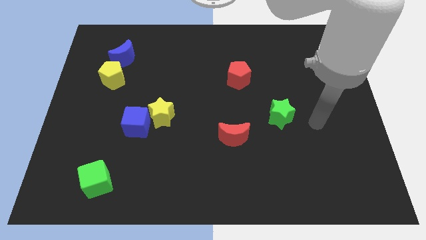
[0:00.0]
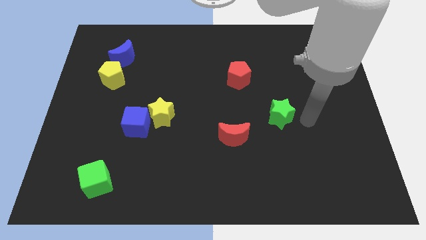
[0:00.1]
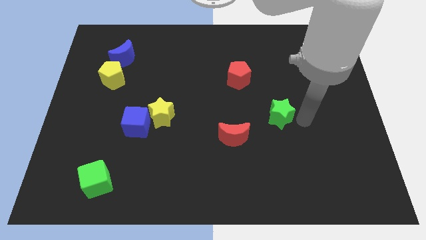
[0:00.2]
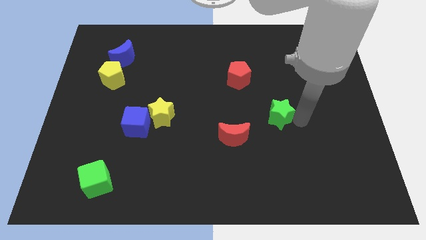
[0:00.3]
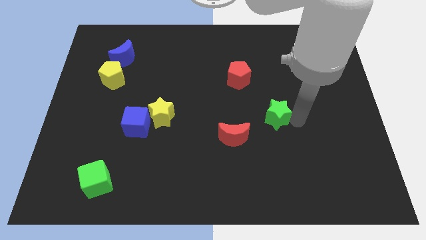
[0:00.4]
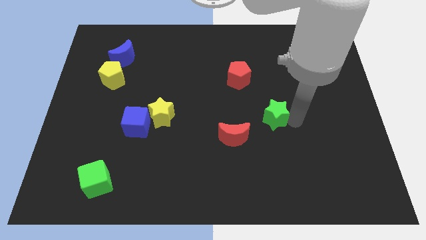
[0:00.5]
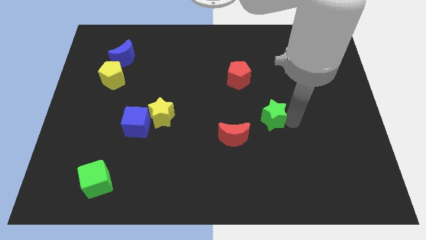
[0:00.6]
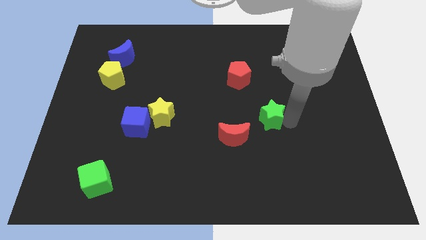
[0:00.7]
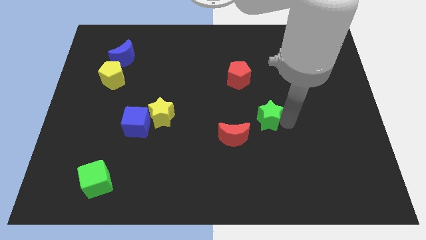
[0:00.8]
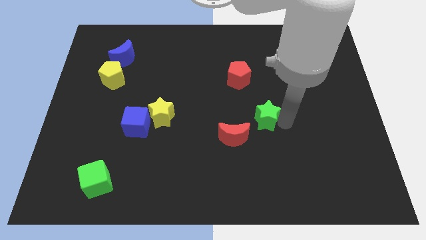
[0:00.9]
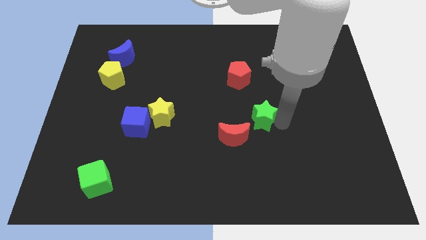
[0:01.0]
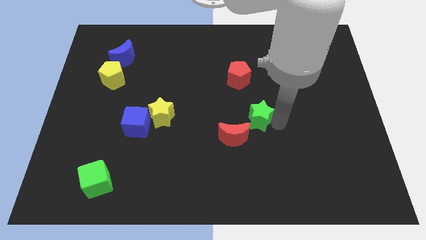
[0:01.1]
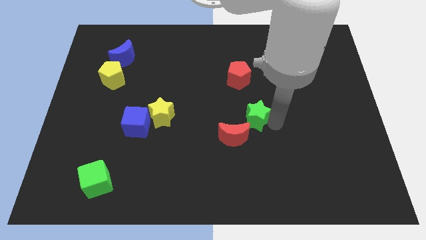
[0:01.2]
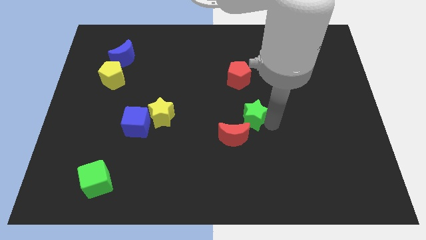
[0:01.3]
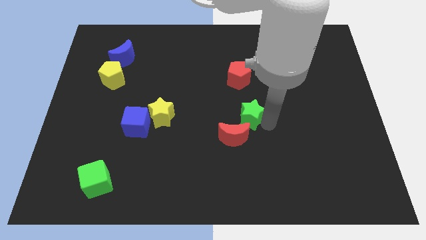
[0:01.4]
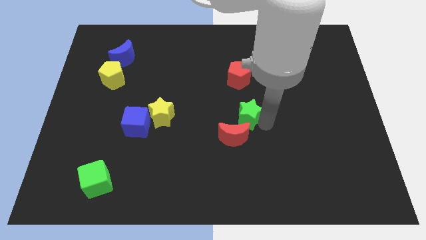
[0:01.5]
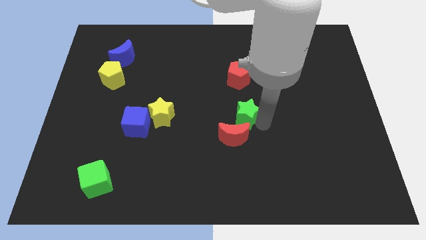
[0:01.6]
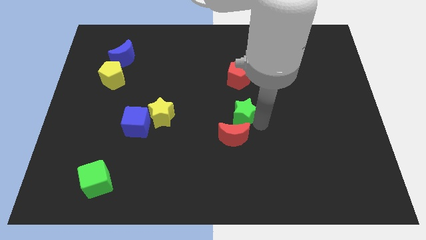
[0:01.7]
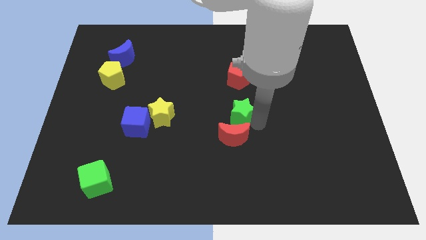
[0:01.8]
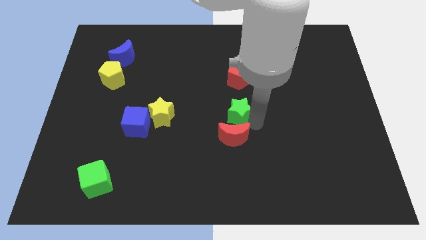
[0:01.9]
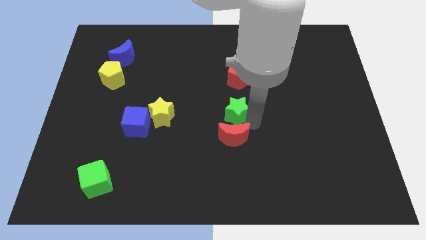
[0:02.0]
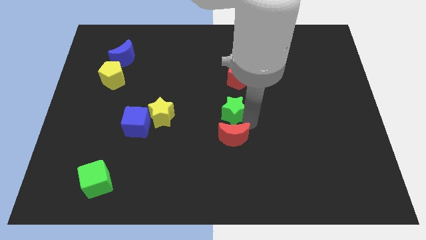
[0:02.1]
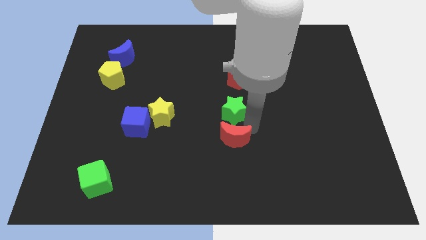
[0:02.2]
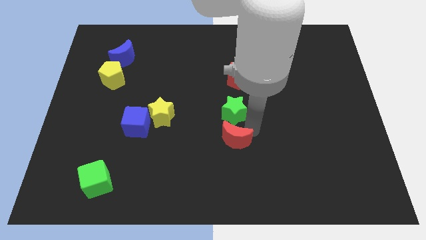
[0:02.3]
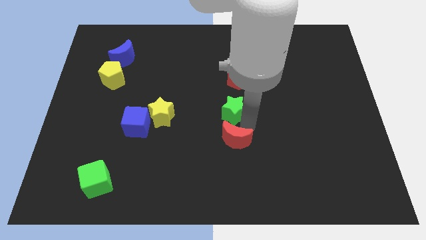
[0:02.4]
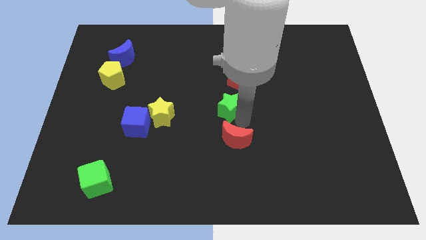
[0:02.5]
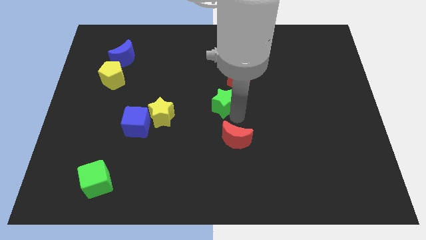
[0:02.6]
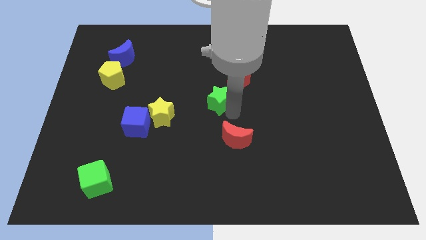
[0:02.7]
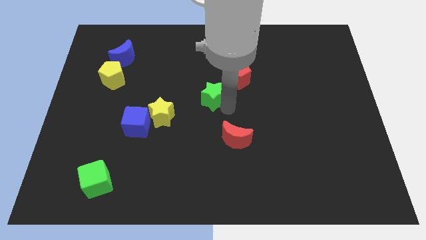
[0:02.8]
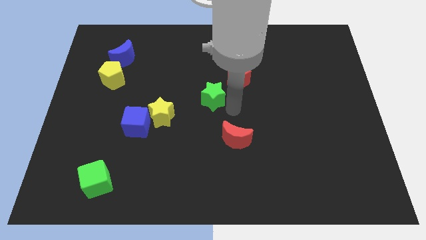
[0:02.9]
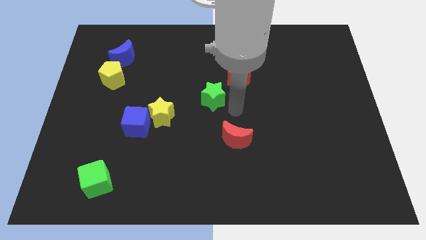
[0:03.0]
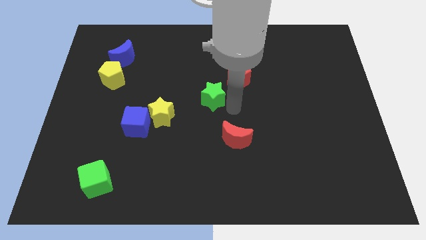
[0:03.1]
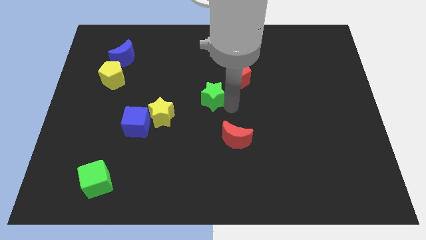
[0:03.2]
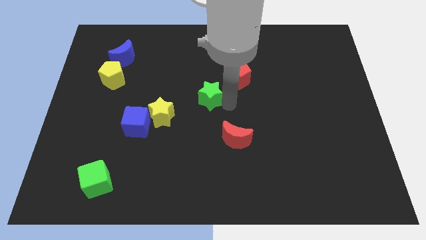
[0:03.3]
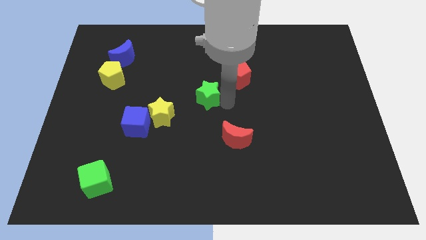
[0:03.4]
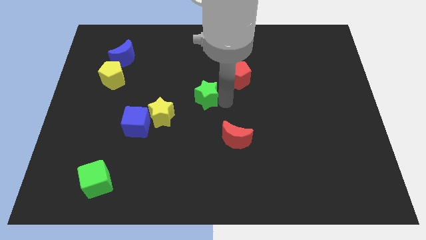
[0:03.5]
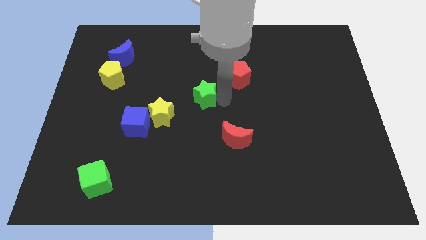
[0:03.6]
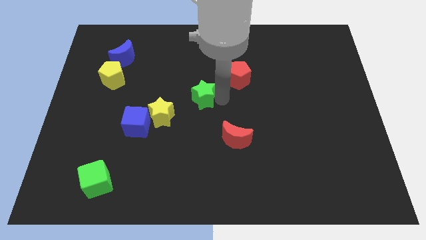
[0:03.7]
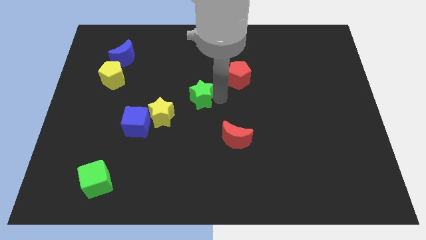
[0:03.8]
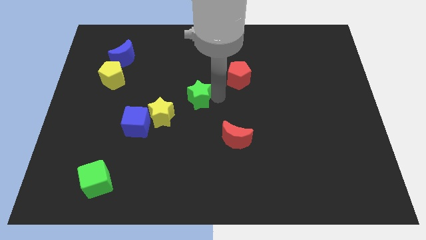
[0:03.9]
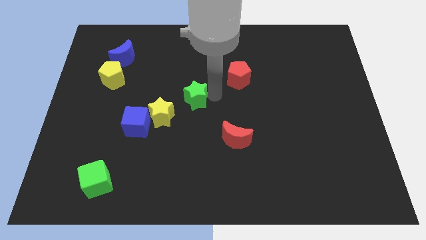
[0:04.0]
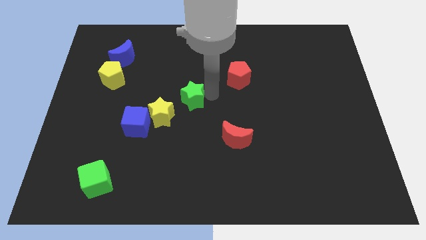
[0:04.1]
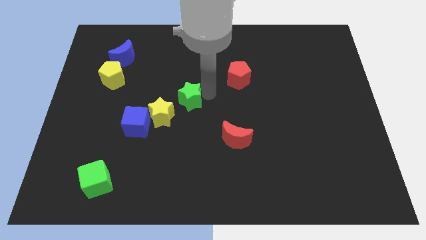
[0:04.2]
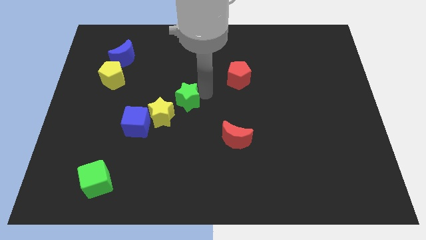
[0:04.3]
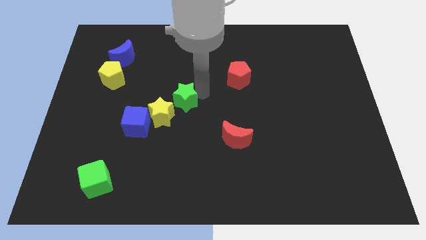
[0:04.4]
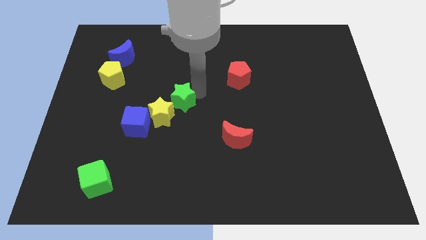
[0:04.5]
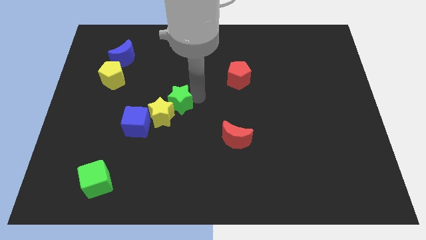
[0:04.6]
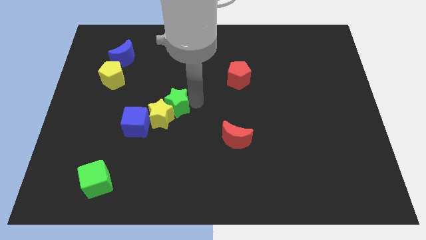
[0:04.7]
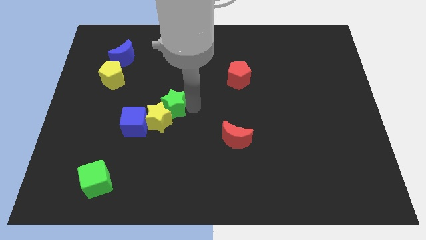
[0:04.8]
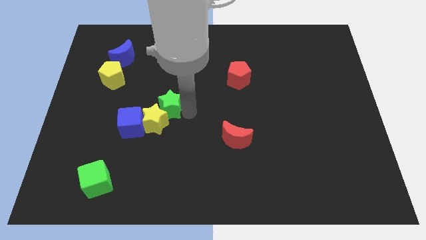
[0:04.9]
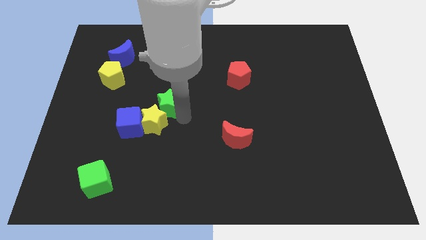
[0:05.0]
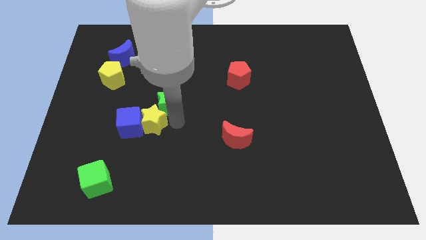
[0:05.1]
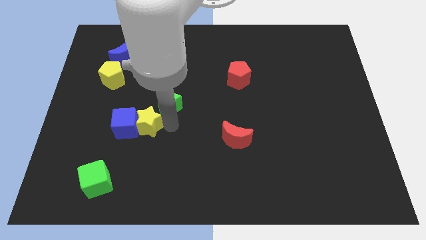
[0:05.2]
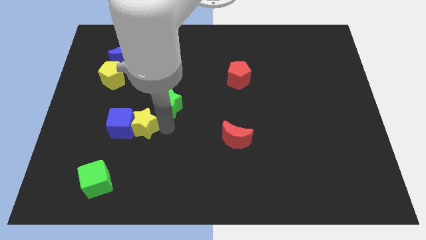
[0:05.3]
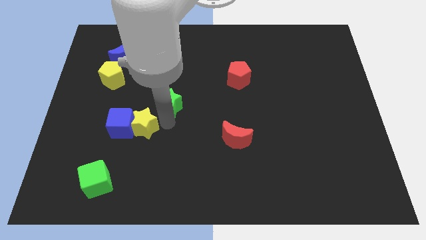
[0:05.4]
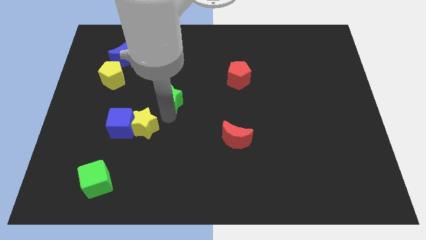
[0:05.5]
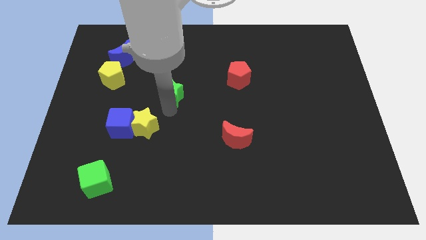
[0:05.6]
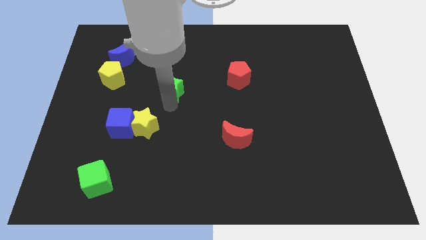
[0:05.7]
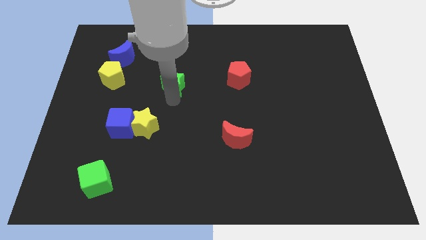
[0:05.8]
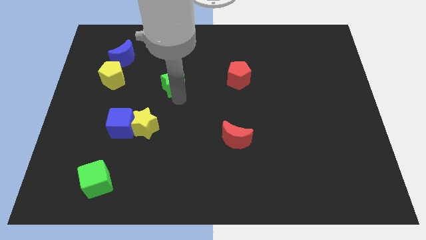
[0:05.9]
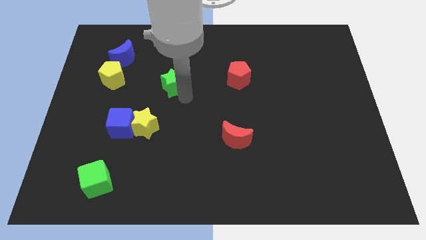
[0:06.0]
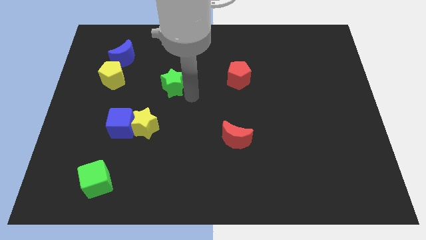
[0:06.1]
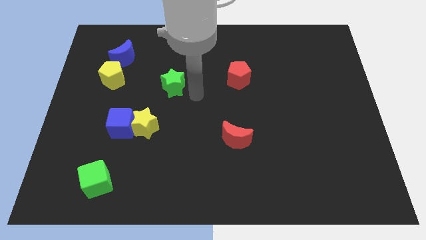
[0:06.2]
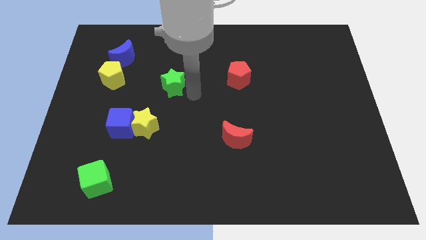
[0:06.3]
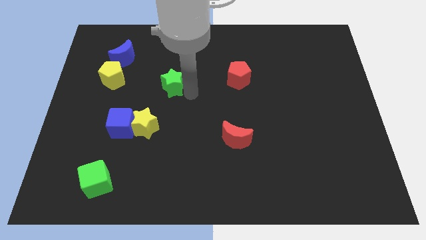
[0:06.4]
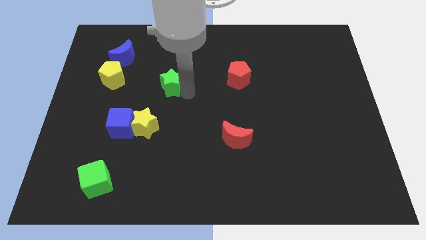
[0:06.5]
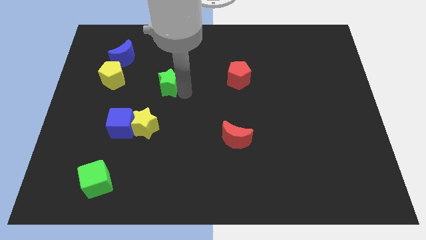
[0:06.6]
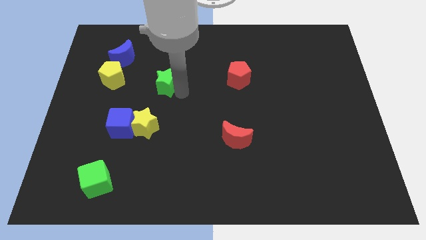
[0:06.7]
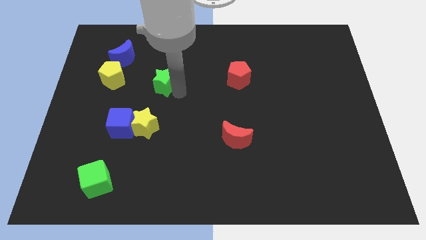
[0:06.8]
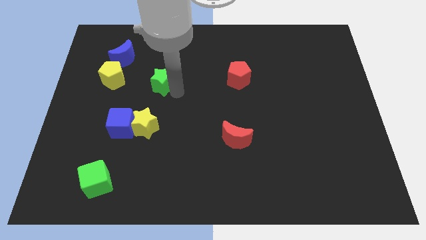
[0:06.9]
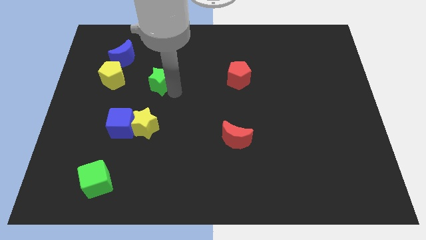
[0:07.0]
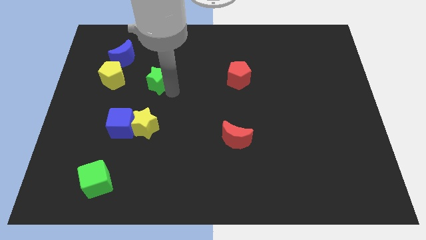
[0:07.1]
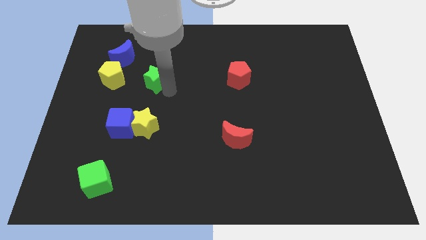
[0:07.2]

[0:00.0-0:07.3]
move the green star diagonally down and to the right of the blue moon

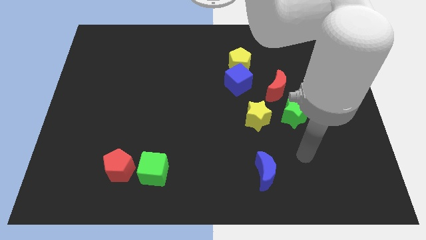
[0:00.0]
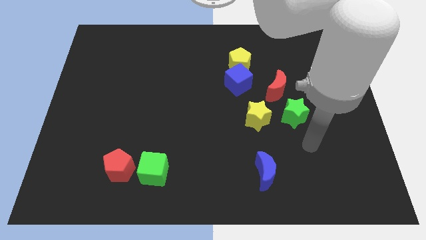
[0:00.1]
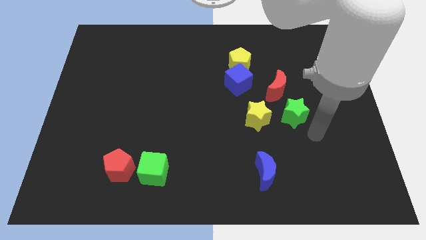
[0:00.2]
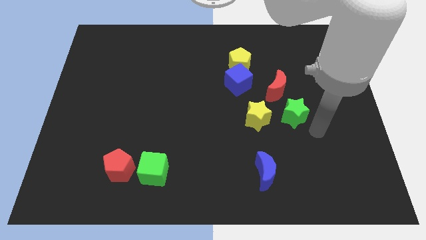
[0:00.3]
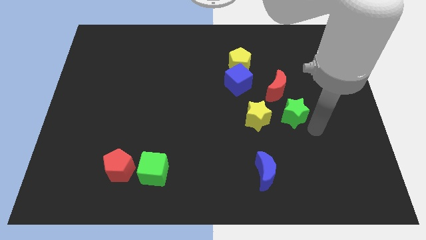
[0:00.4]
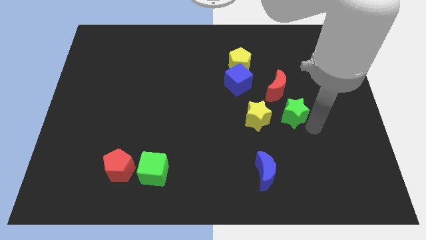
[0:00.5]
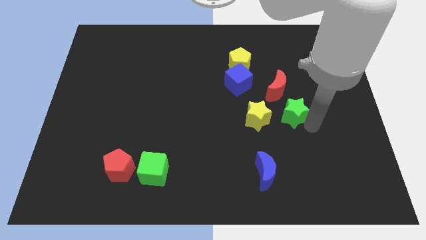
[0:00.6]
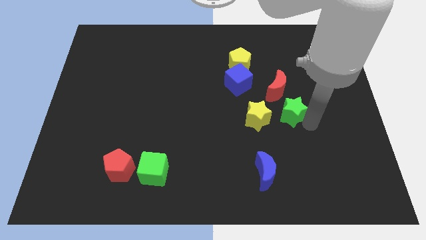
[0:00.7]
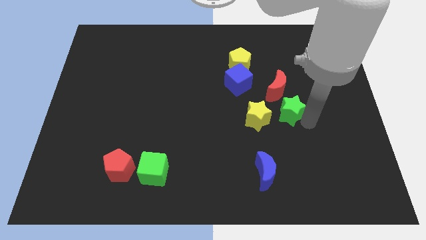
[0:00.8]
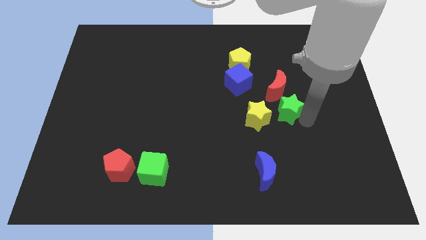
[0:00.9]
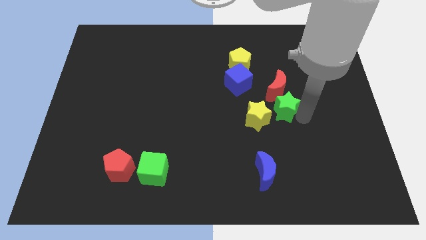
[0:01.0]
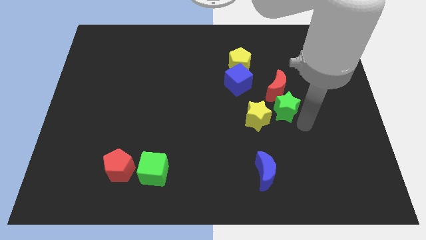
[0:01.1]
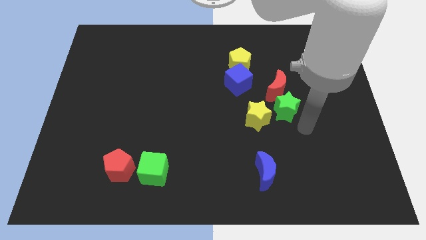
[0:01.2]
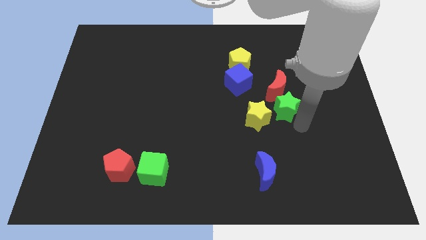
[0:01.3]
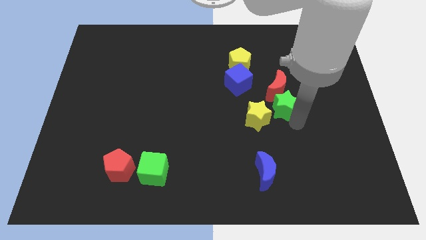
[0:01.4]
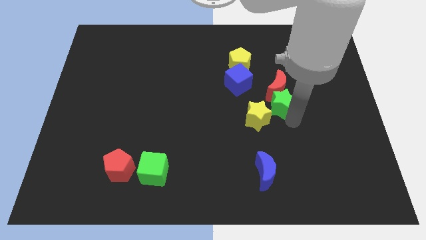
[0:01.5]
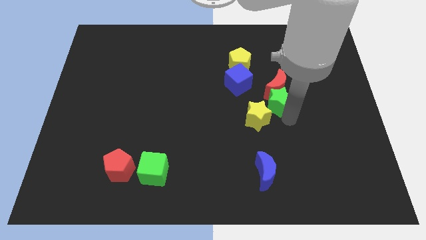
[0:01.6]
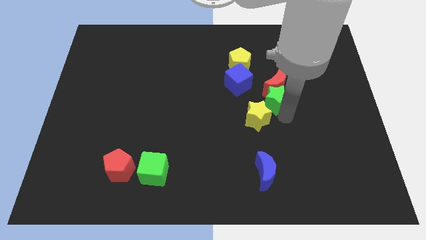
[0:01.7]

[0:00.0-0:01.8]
push the green star to the top side of the yellow star
